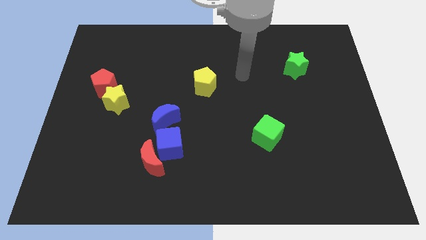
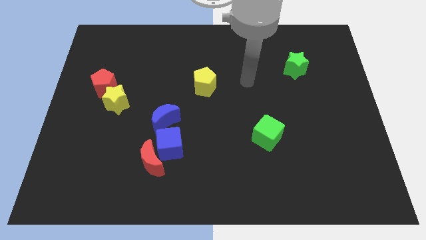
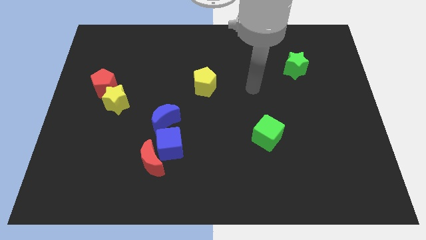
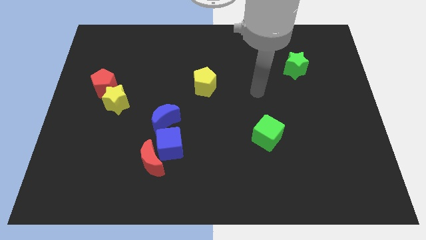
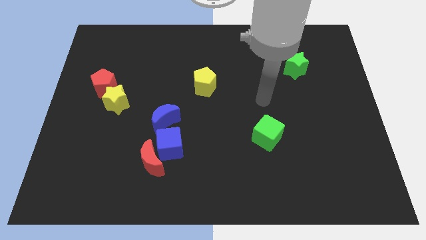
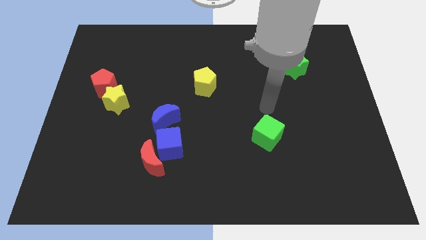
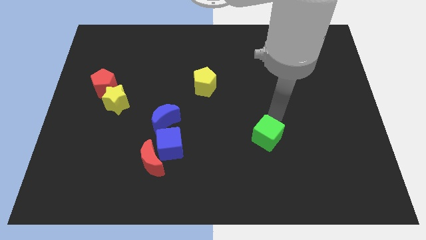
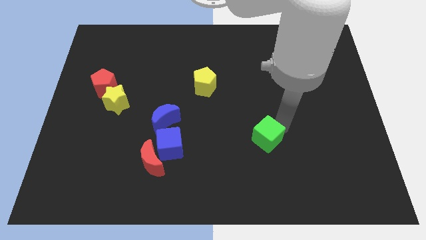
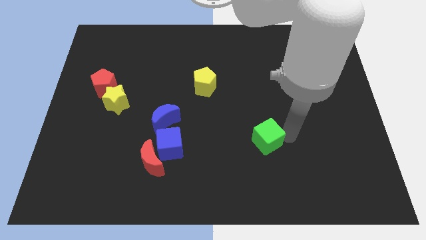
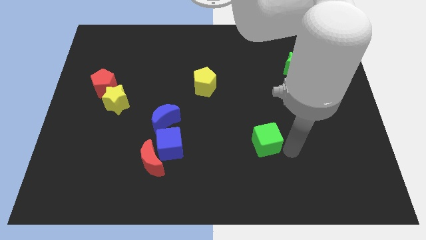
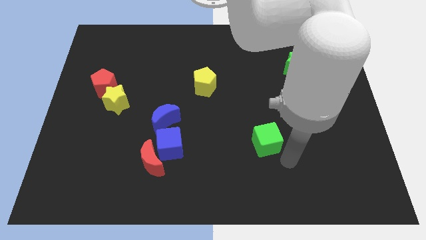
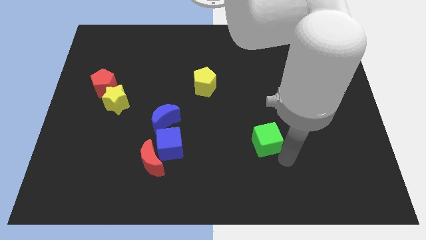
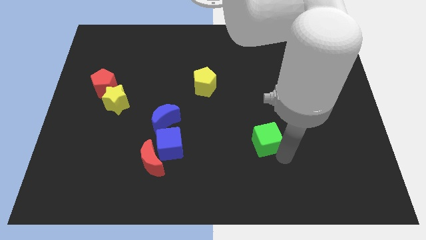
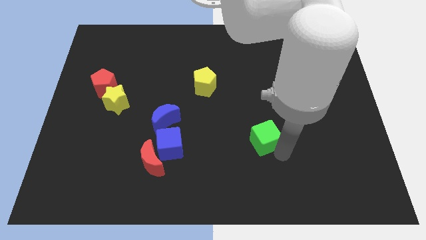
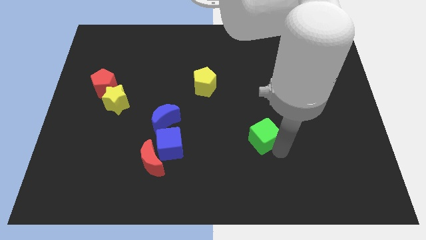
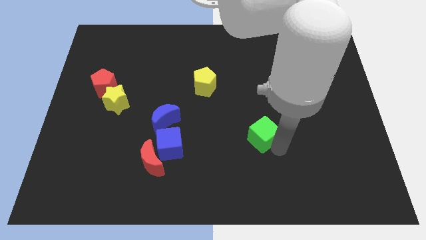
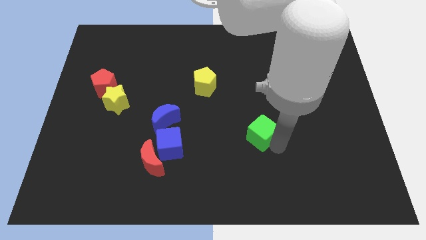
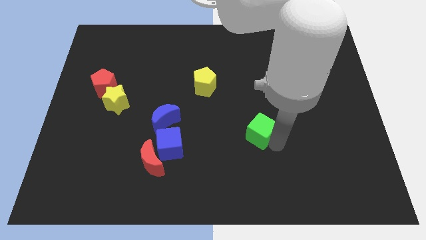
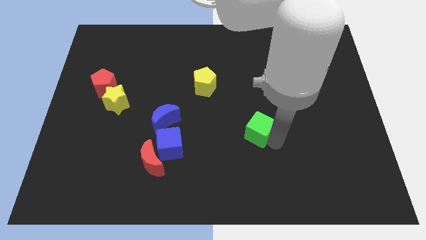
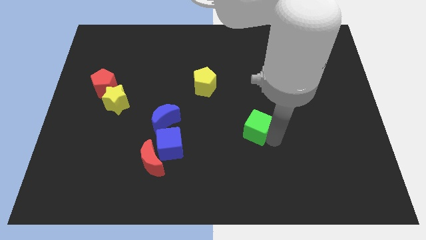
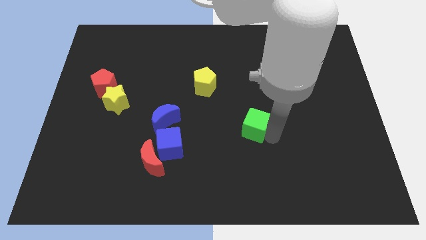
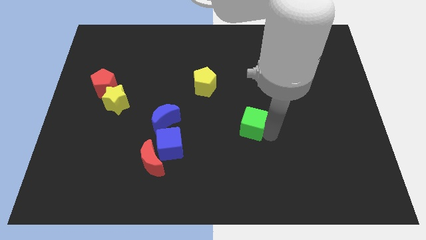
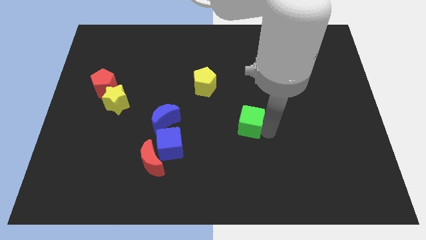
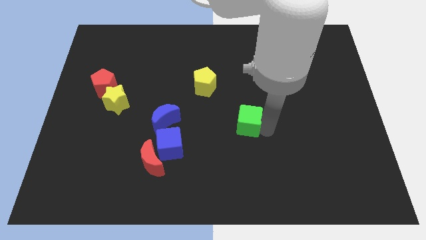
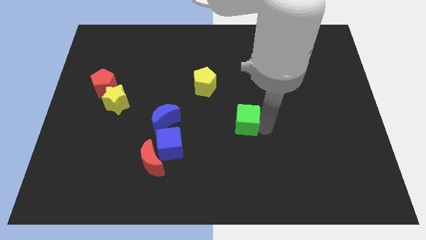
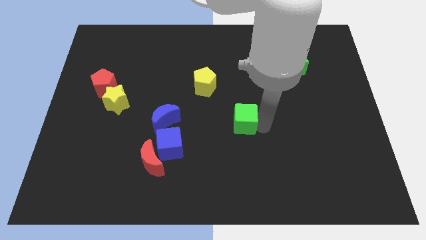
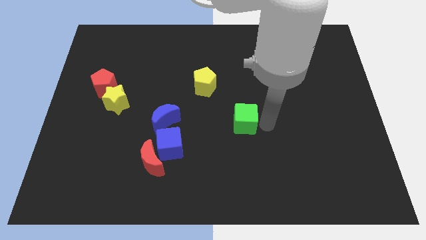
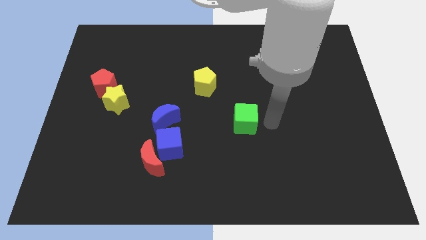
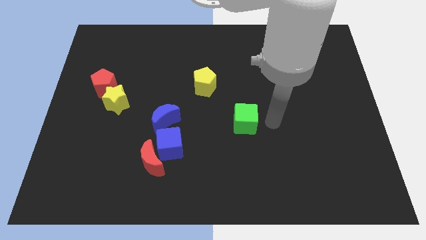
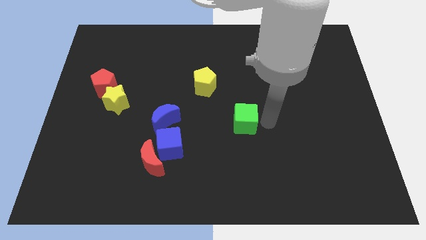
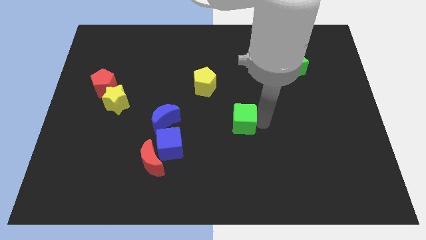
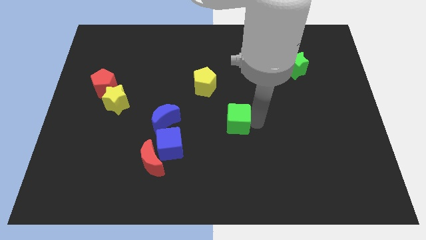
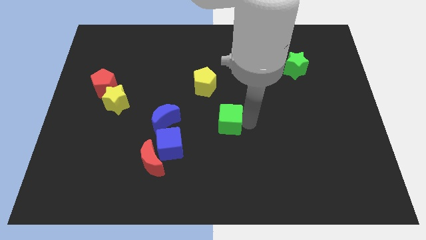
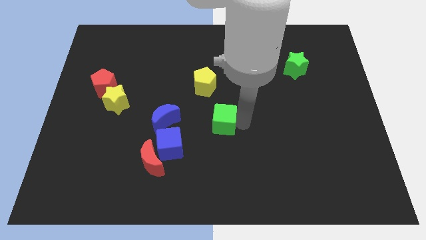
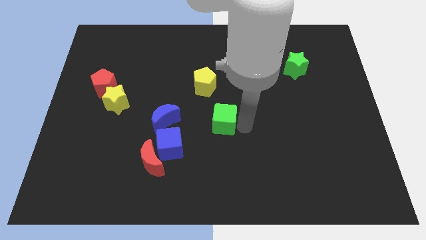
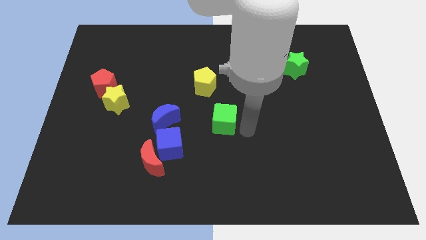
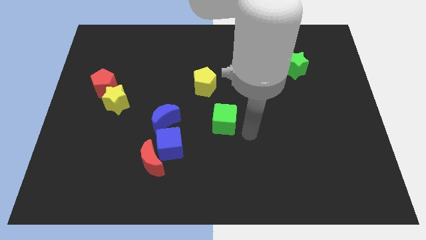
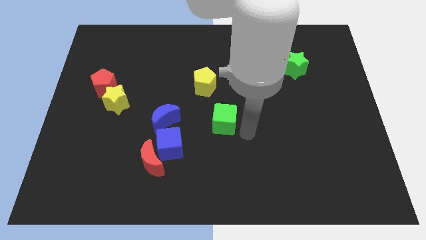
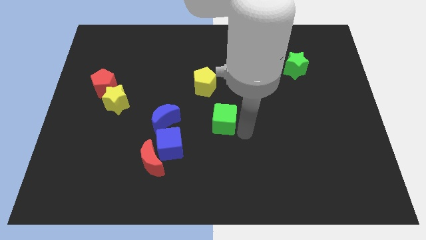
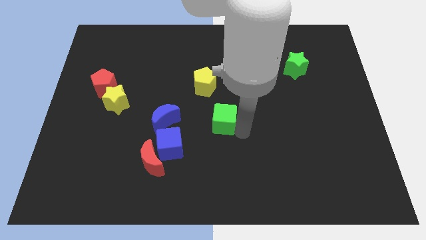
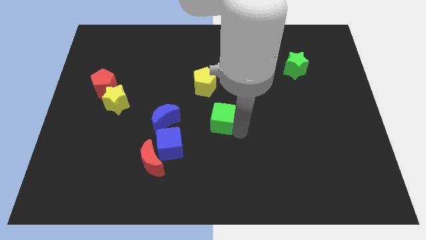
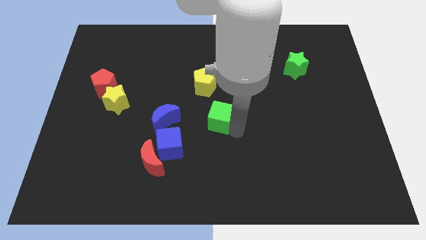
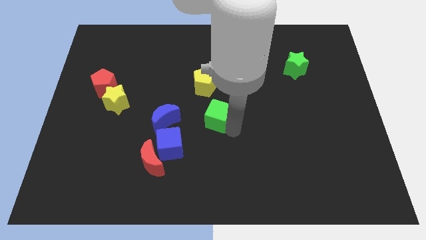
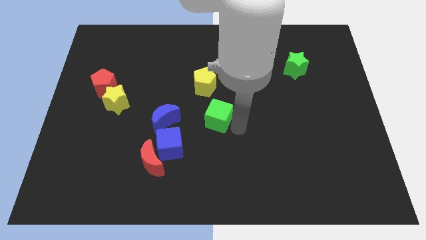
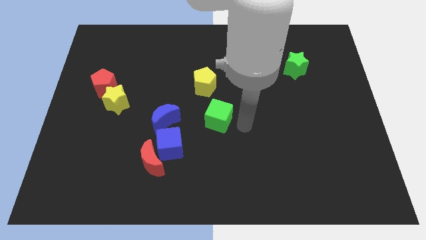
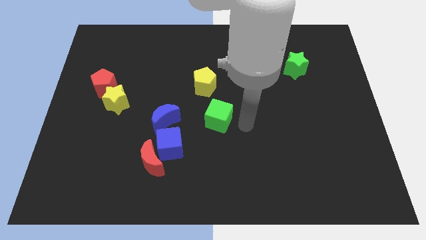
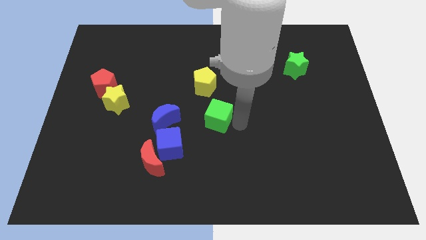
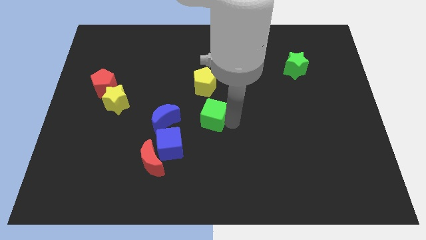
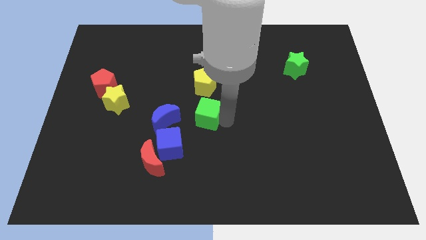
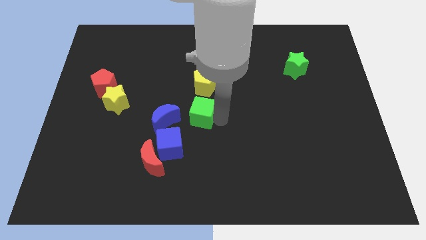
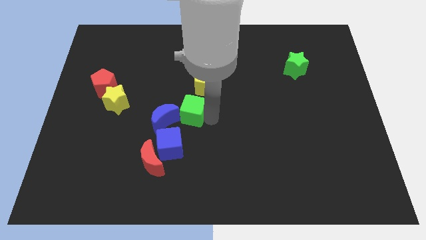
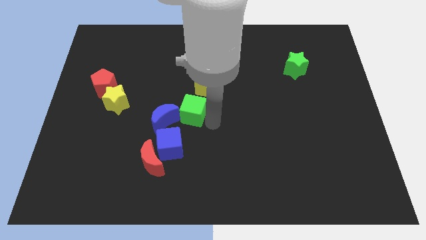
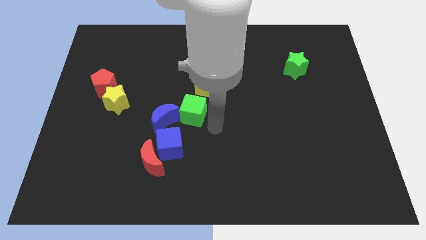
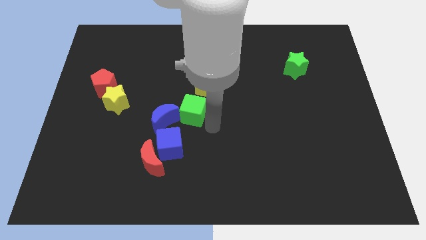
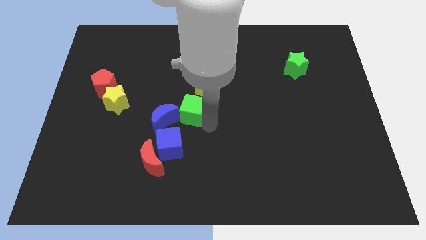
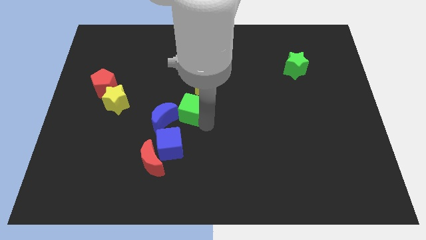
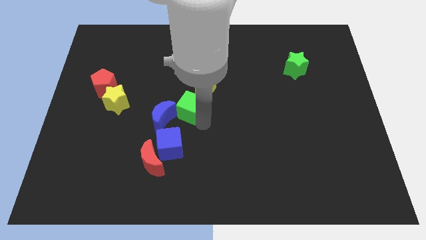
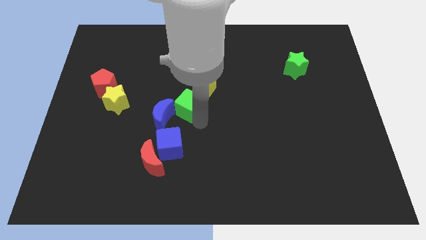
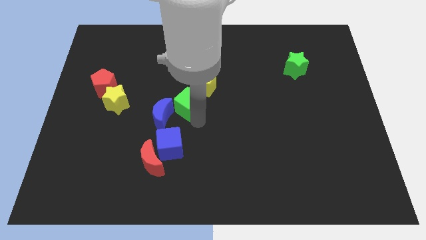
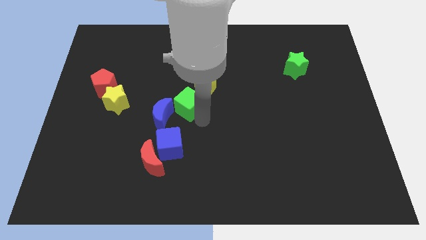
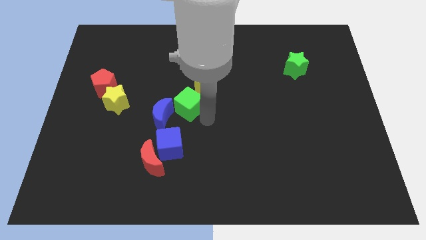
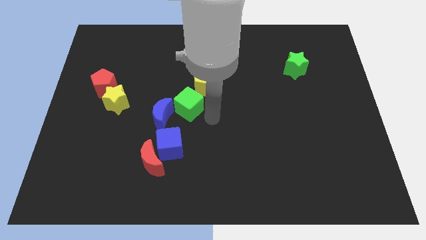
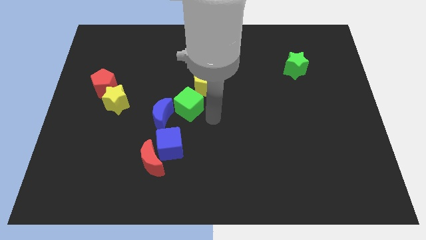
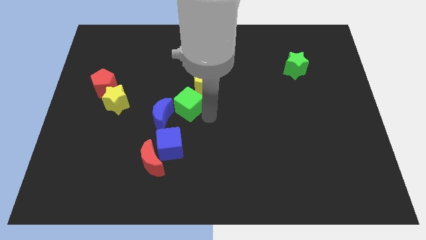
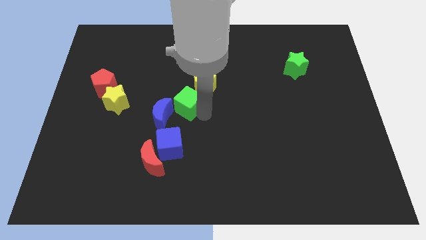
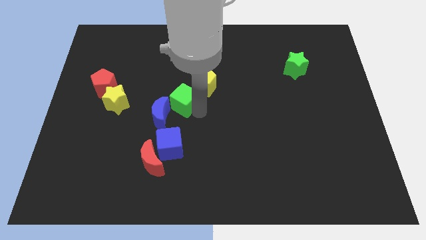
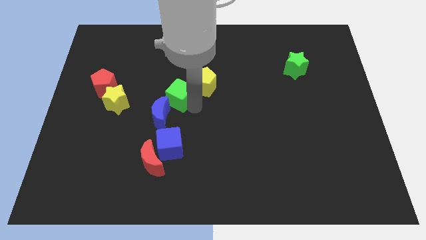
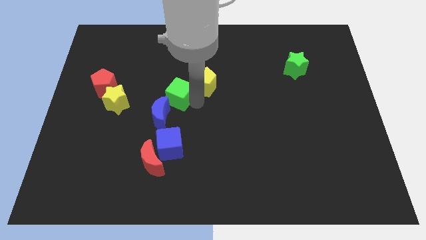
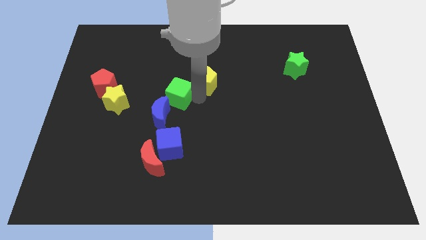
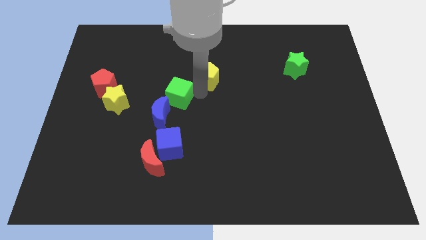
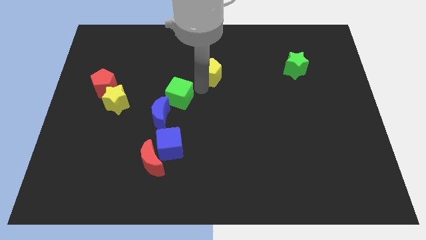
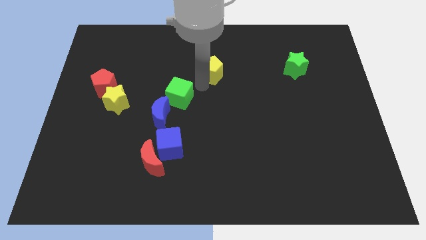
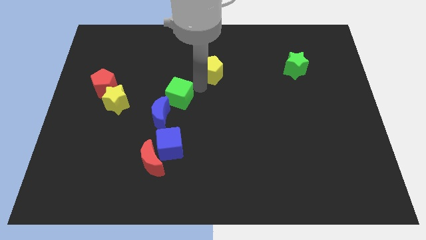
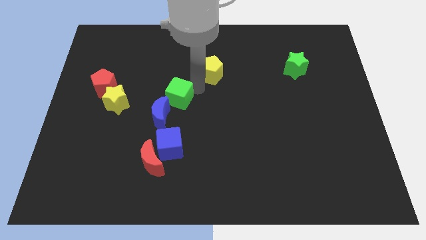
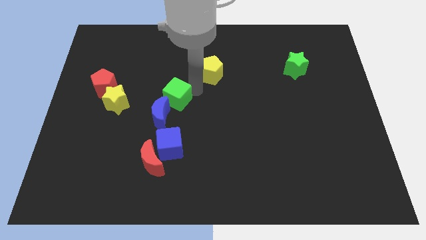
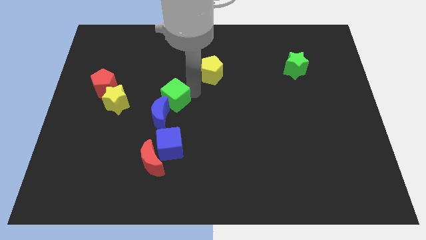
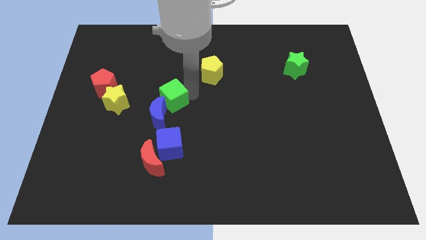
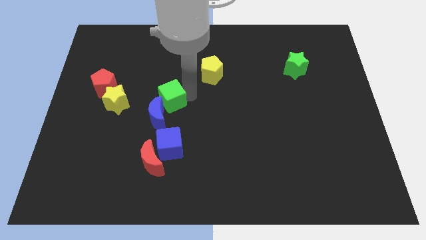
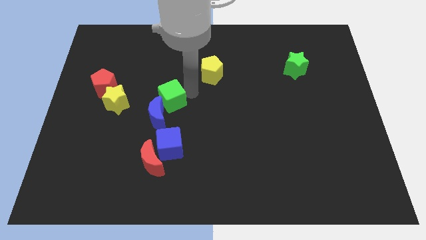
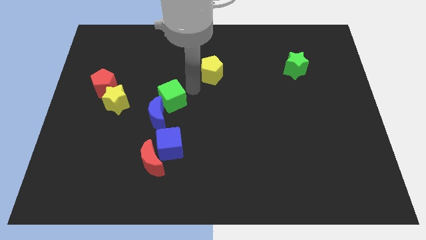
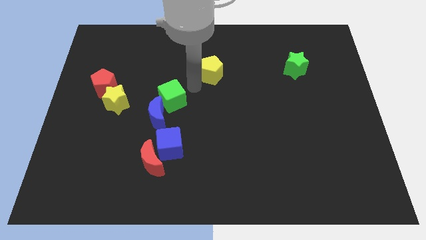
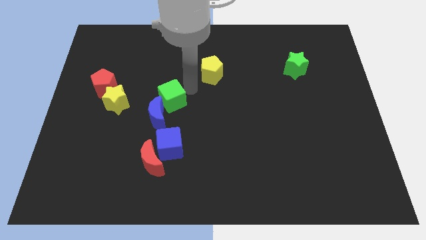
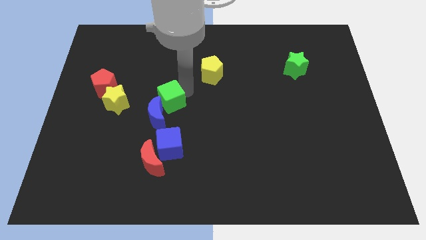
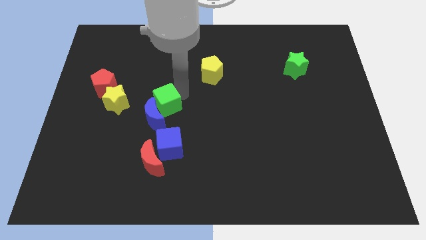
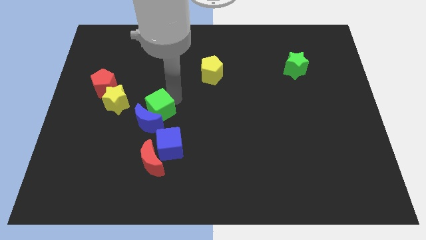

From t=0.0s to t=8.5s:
slide the green cube to the left
